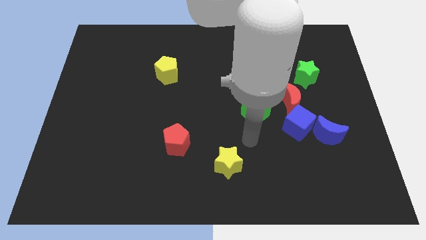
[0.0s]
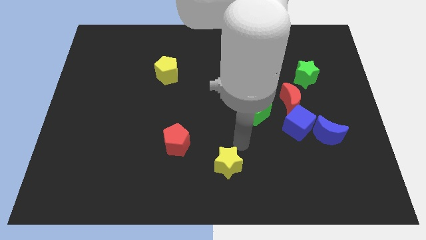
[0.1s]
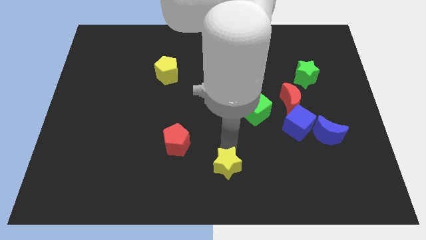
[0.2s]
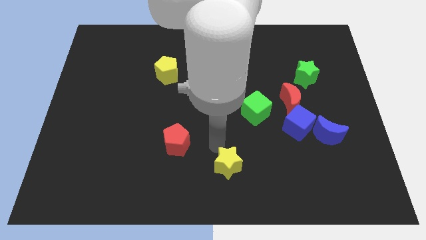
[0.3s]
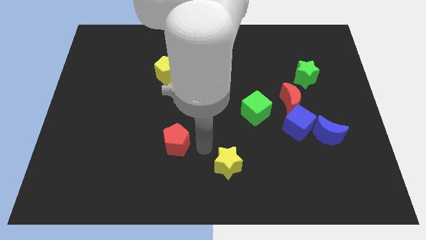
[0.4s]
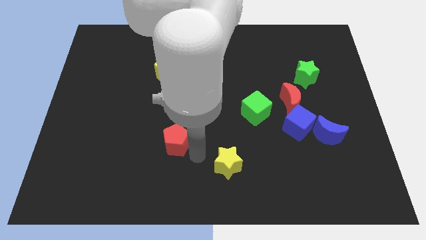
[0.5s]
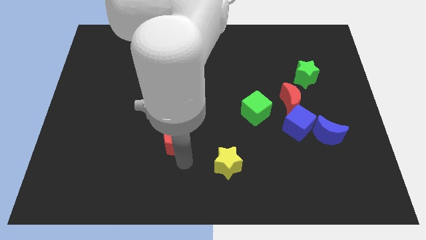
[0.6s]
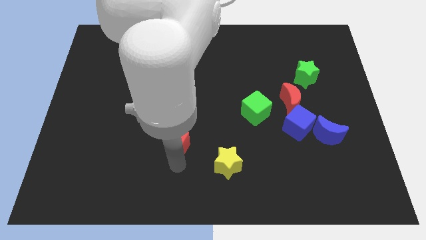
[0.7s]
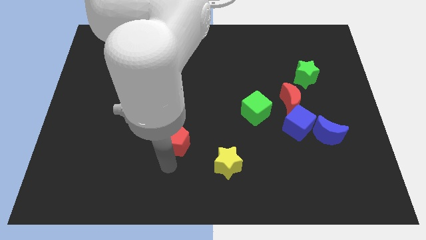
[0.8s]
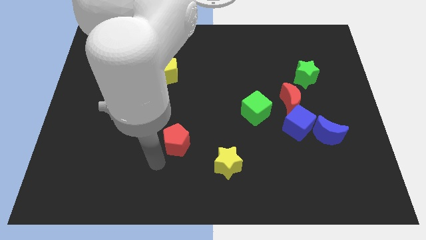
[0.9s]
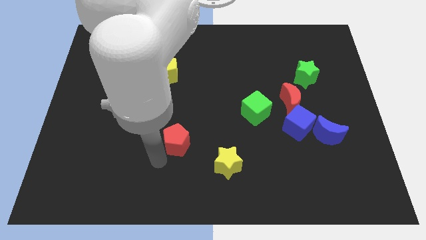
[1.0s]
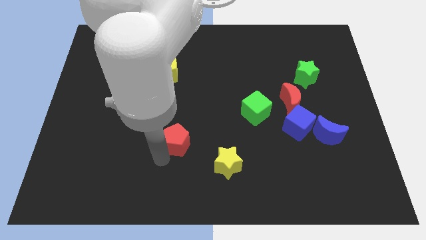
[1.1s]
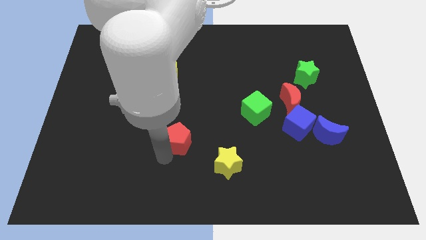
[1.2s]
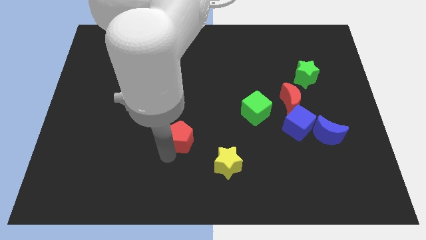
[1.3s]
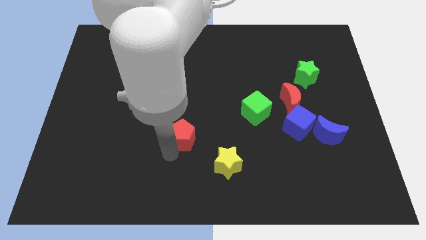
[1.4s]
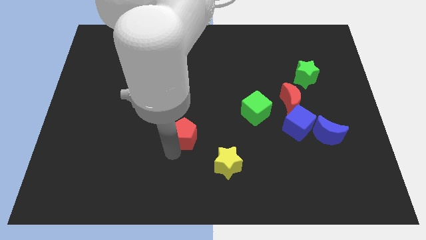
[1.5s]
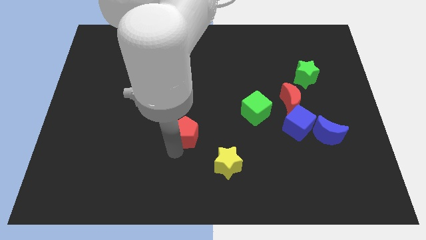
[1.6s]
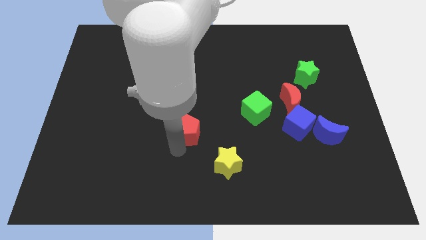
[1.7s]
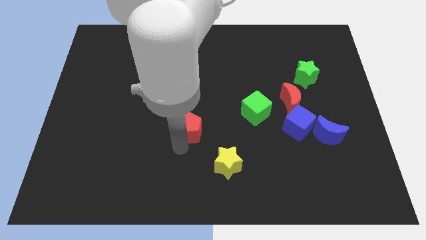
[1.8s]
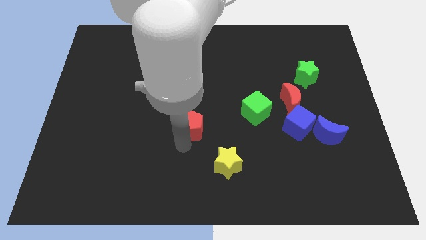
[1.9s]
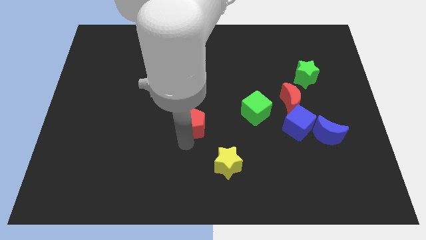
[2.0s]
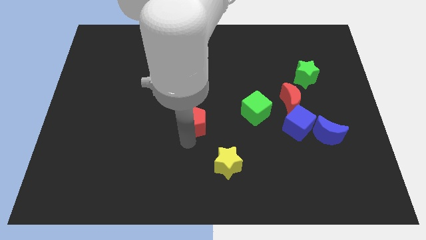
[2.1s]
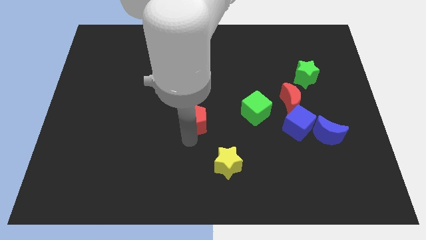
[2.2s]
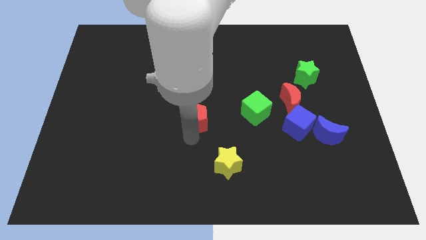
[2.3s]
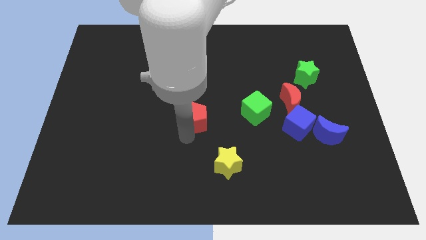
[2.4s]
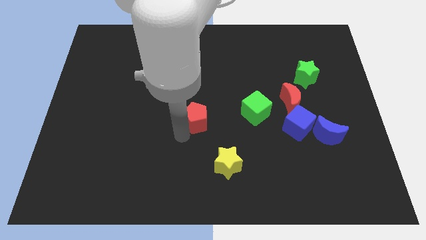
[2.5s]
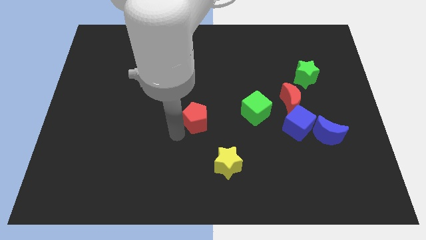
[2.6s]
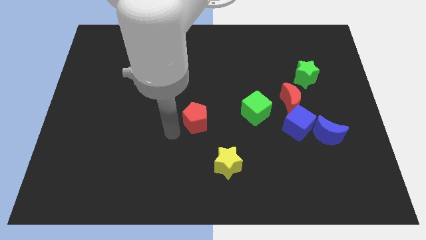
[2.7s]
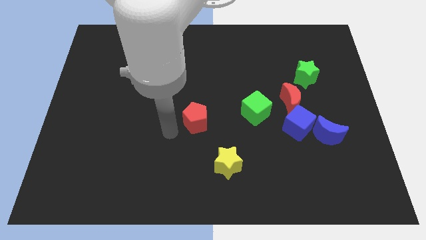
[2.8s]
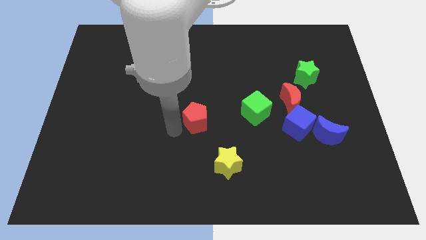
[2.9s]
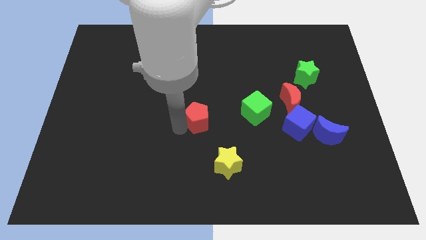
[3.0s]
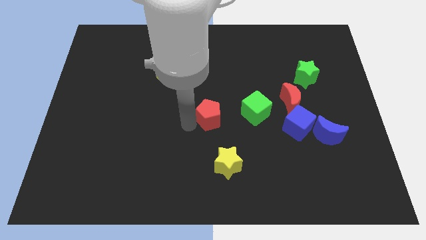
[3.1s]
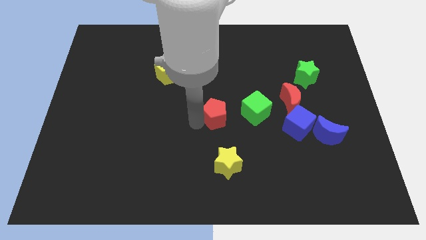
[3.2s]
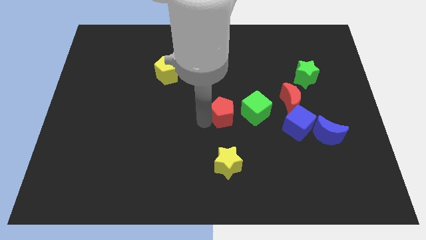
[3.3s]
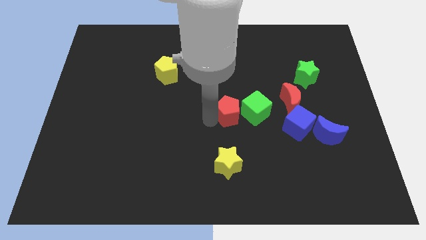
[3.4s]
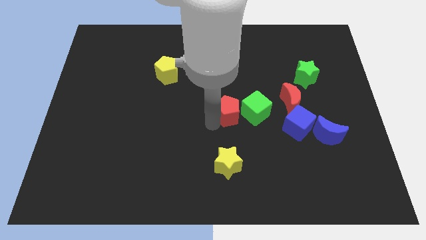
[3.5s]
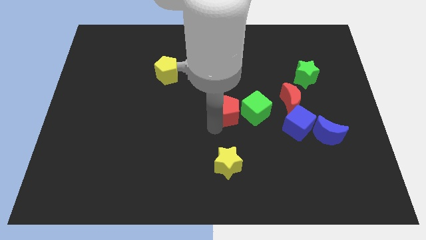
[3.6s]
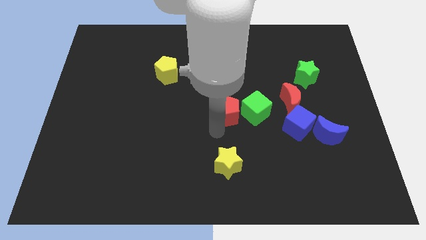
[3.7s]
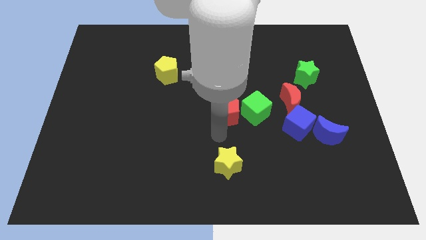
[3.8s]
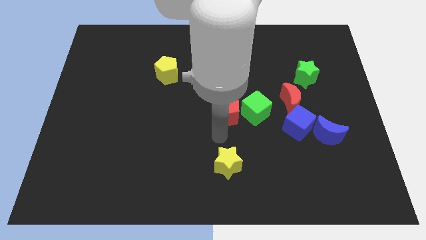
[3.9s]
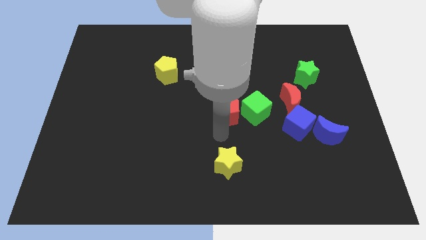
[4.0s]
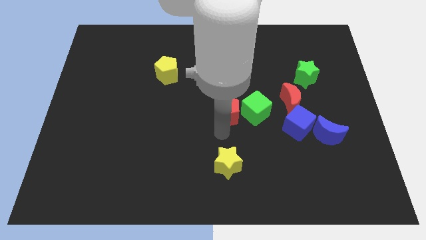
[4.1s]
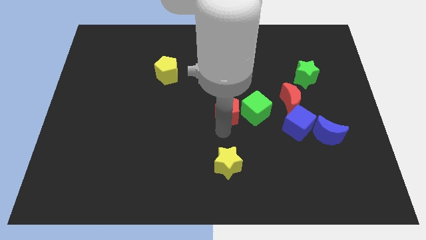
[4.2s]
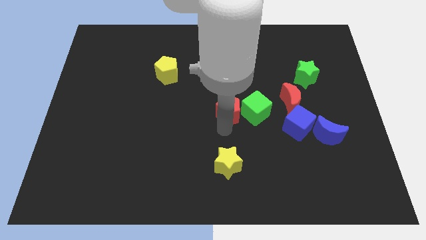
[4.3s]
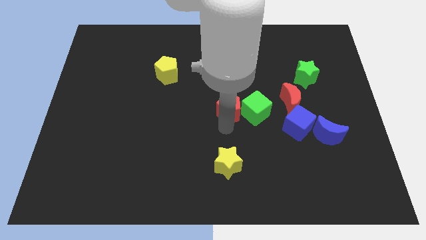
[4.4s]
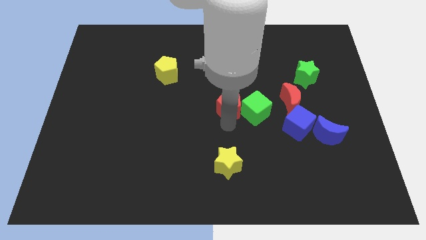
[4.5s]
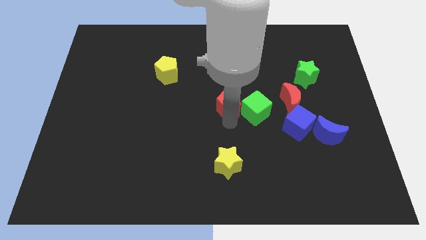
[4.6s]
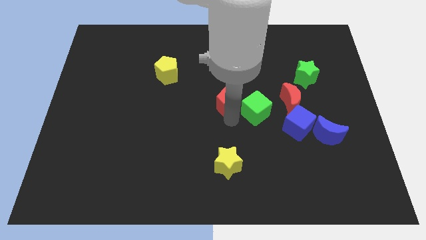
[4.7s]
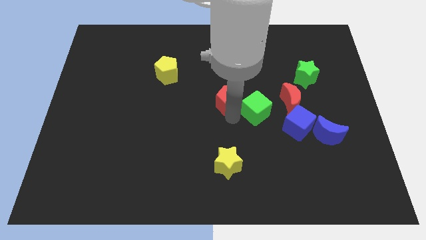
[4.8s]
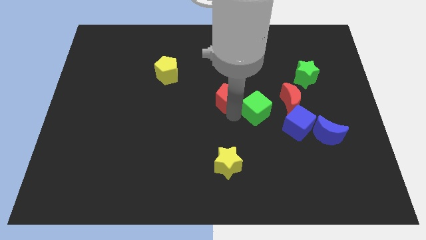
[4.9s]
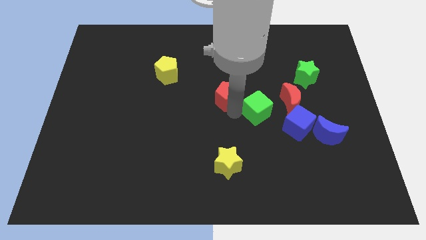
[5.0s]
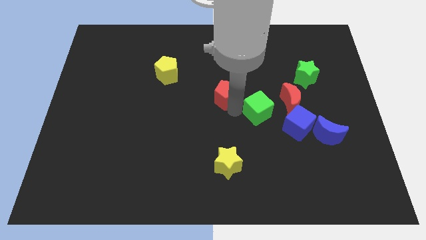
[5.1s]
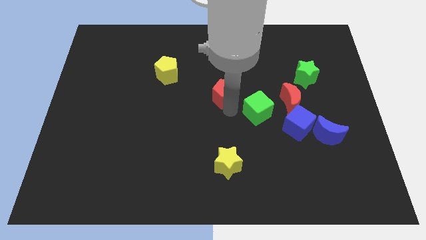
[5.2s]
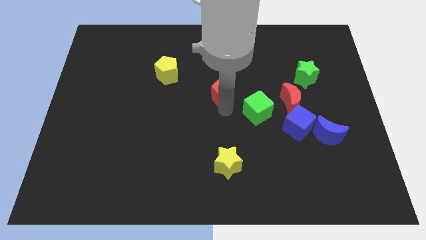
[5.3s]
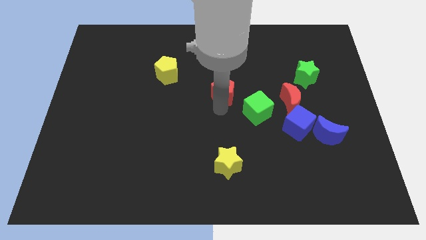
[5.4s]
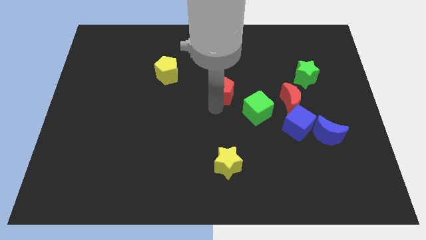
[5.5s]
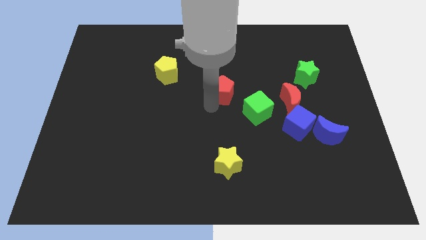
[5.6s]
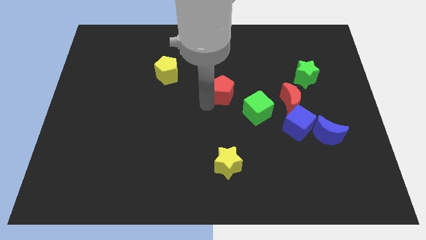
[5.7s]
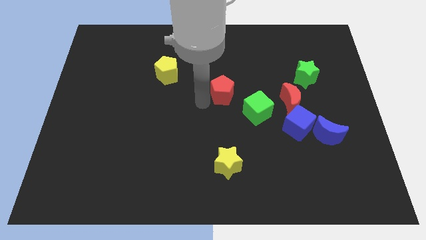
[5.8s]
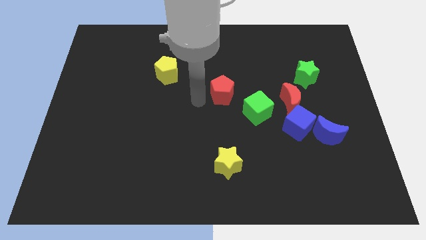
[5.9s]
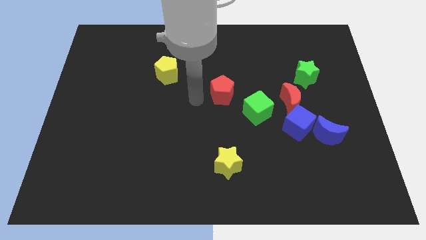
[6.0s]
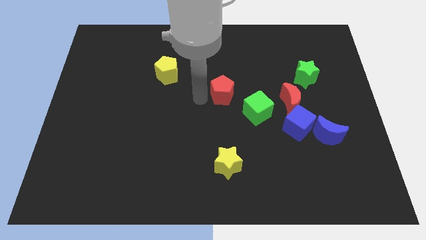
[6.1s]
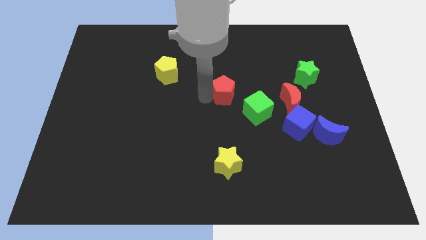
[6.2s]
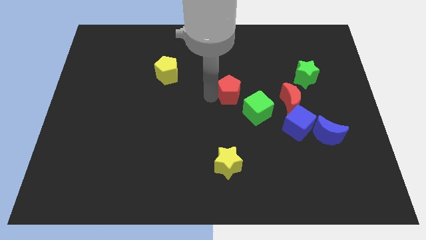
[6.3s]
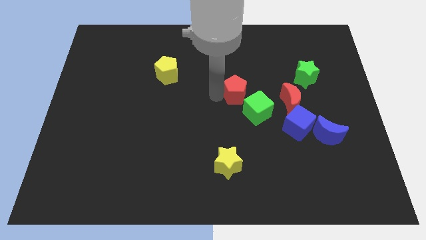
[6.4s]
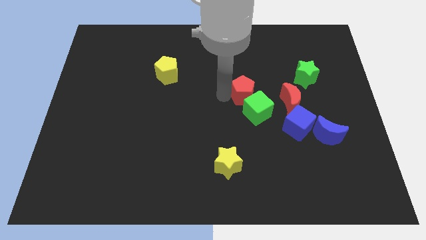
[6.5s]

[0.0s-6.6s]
move the red pentagon up and right

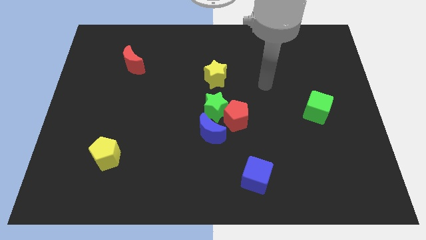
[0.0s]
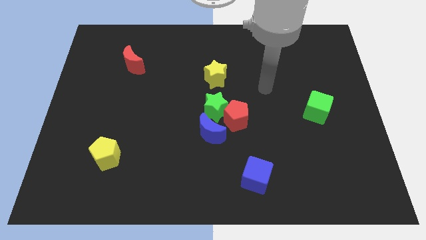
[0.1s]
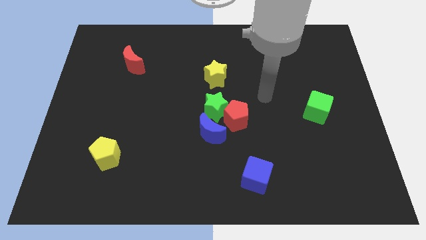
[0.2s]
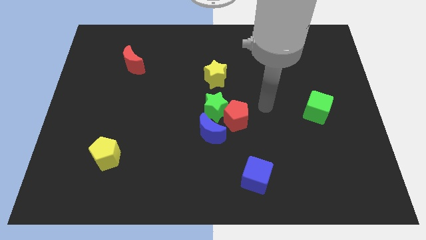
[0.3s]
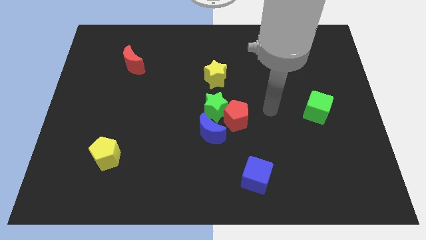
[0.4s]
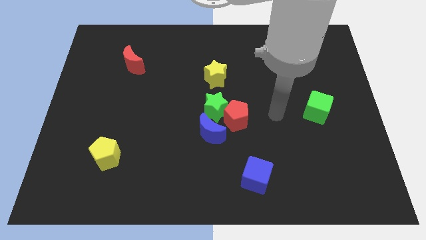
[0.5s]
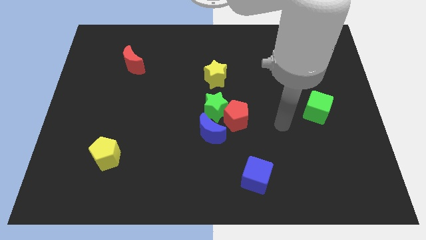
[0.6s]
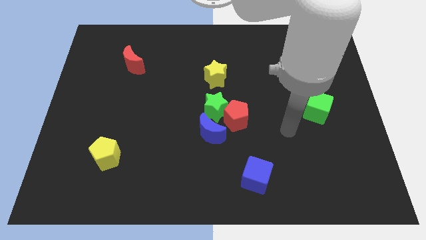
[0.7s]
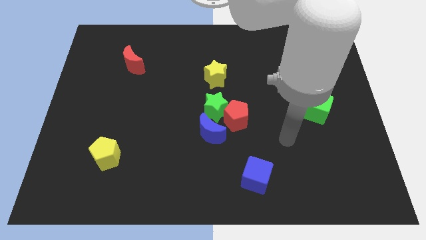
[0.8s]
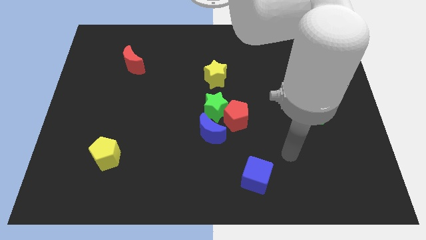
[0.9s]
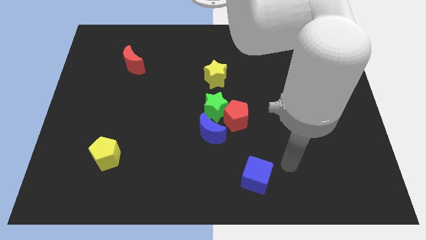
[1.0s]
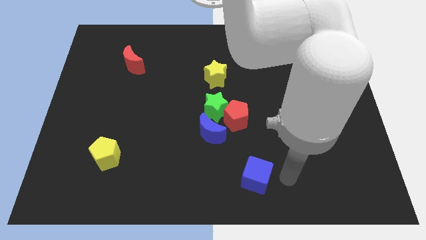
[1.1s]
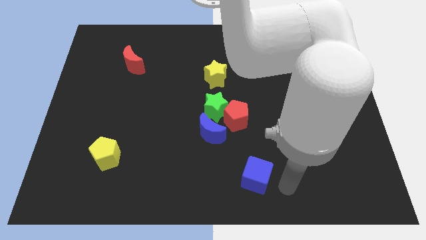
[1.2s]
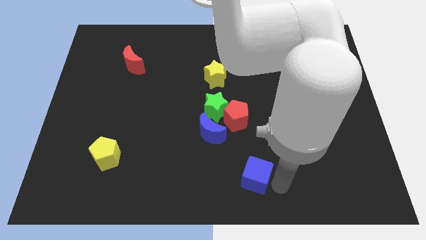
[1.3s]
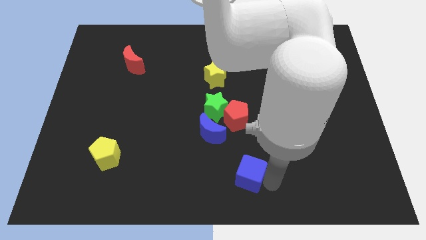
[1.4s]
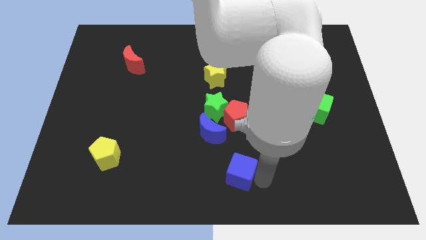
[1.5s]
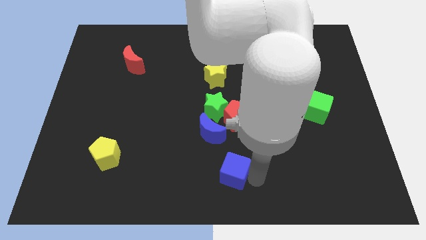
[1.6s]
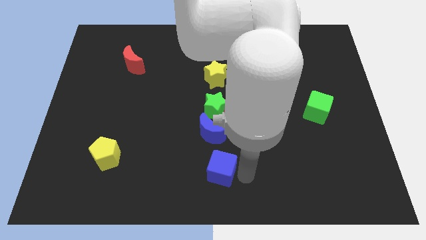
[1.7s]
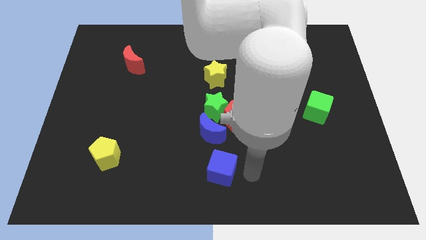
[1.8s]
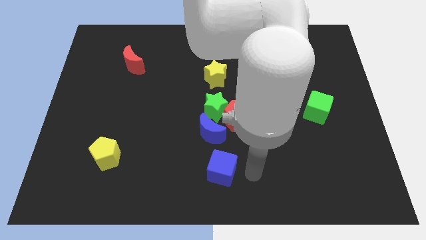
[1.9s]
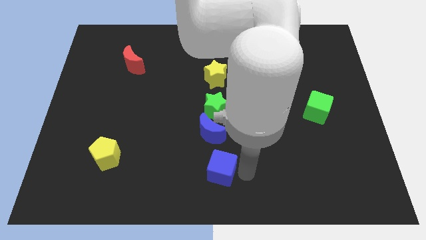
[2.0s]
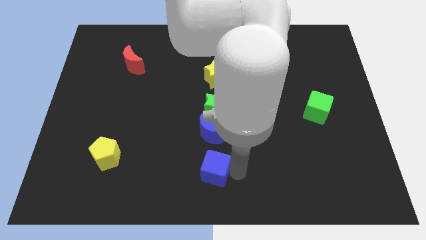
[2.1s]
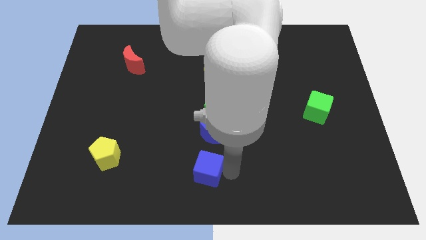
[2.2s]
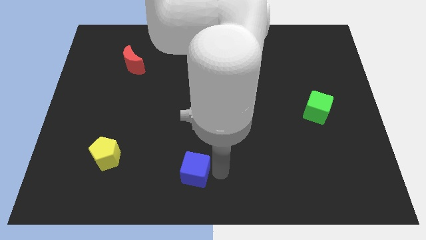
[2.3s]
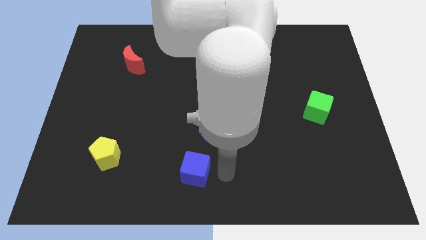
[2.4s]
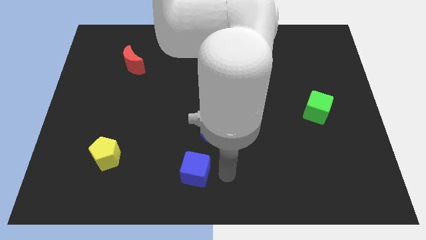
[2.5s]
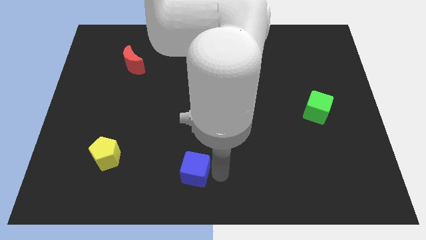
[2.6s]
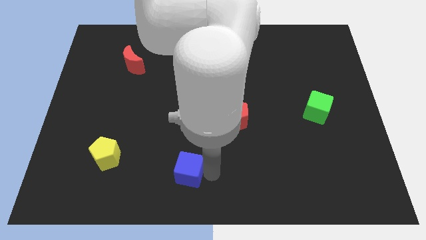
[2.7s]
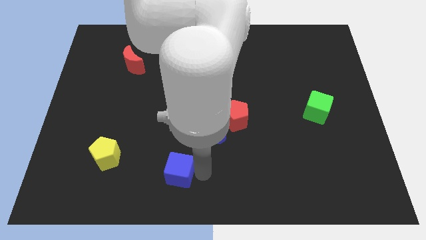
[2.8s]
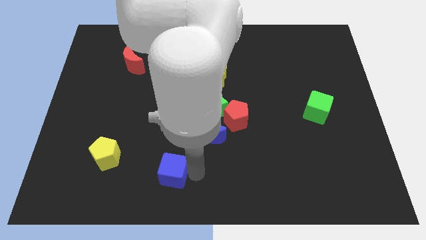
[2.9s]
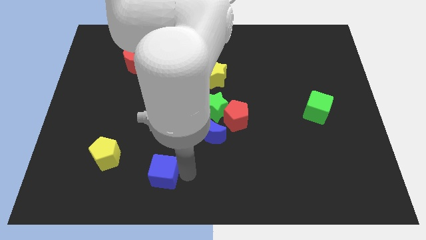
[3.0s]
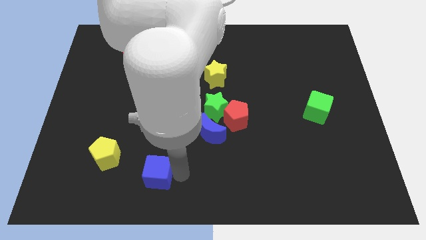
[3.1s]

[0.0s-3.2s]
slide the blue cube left
